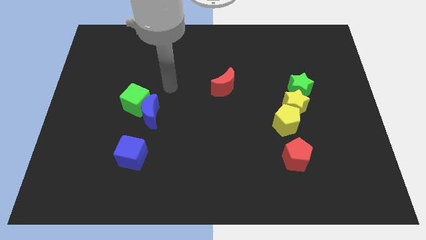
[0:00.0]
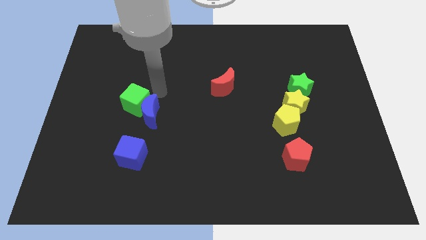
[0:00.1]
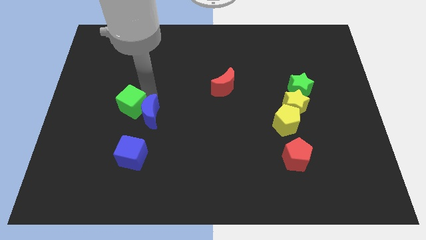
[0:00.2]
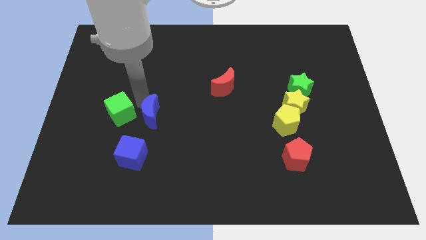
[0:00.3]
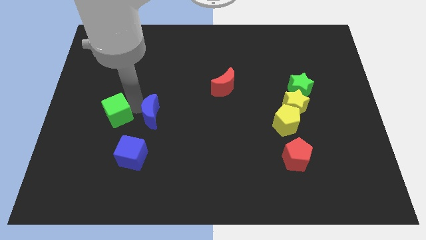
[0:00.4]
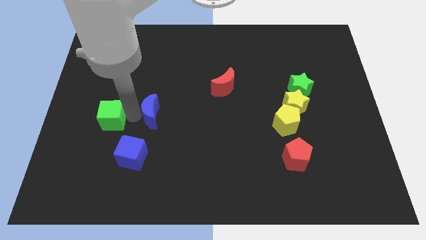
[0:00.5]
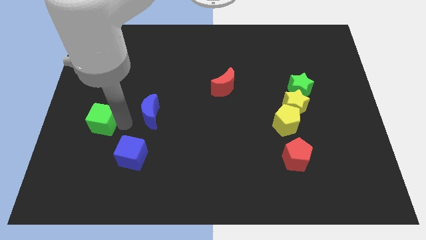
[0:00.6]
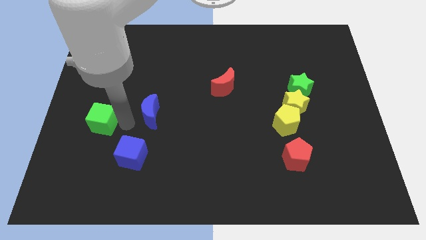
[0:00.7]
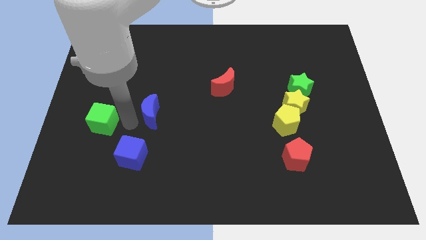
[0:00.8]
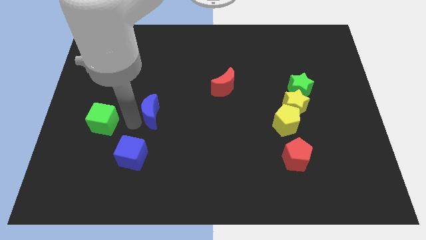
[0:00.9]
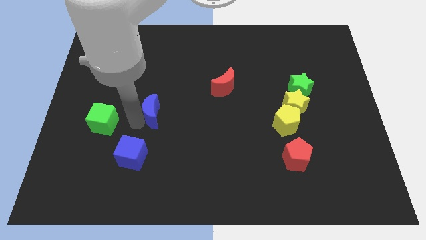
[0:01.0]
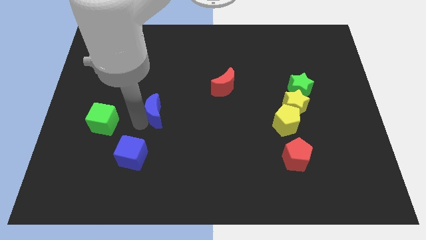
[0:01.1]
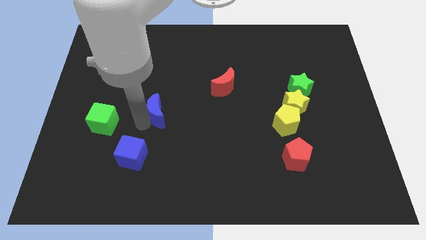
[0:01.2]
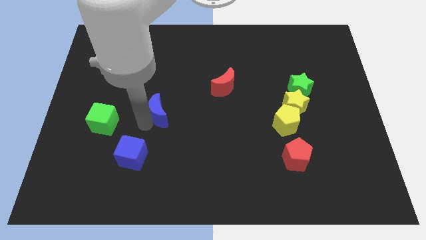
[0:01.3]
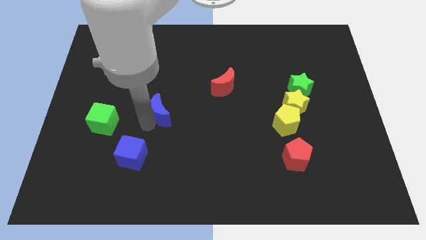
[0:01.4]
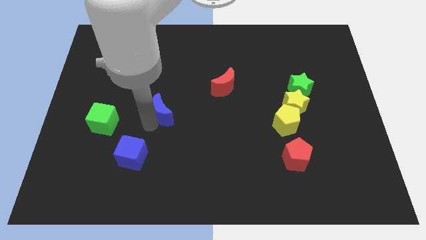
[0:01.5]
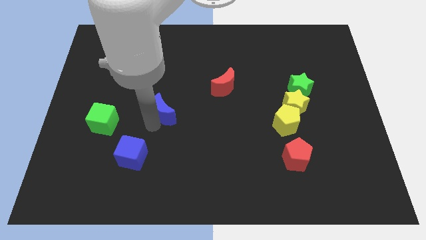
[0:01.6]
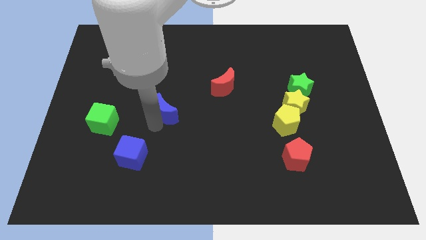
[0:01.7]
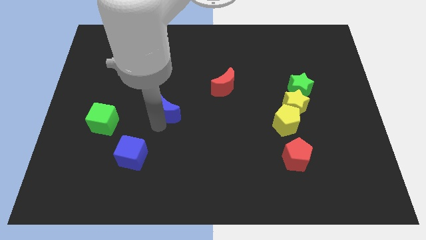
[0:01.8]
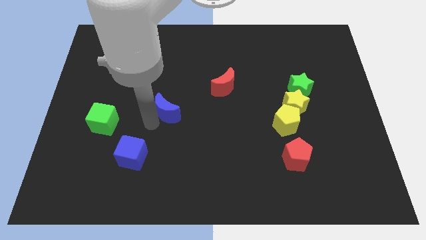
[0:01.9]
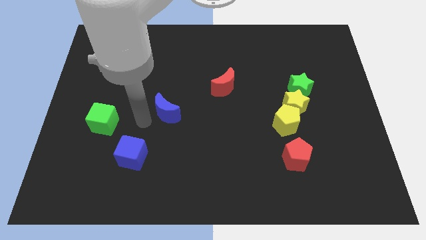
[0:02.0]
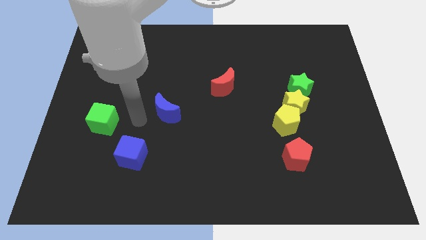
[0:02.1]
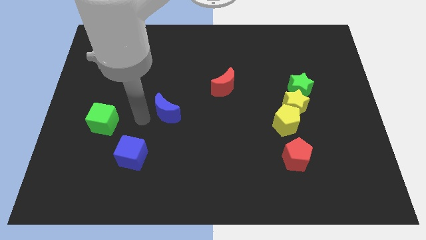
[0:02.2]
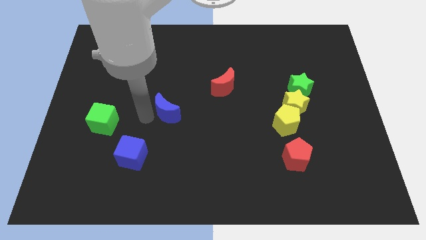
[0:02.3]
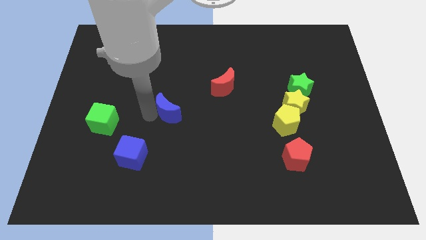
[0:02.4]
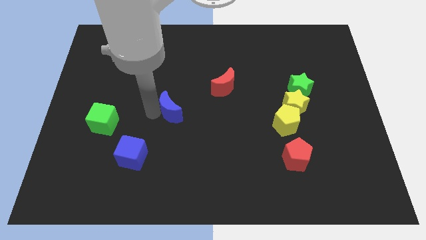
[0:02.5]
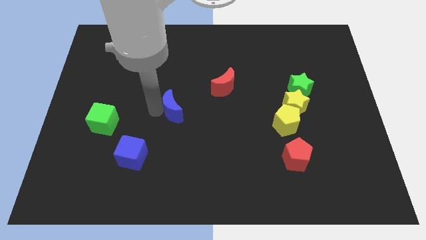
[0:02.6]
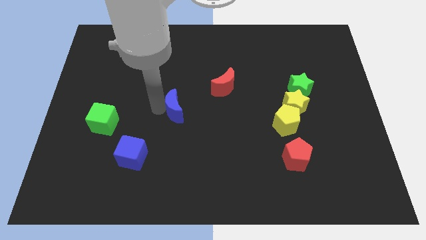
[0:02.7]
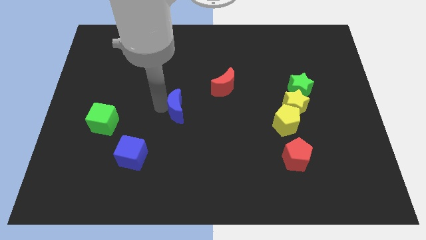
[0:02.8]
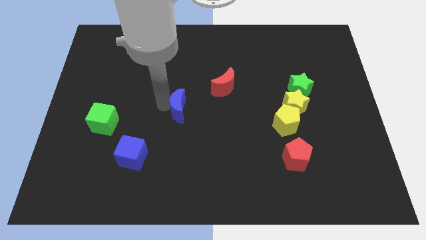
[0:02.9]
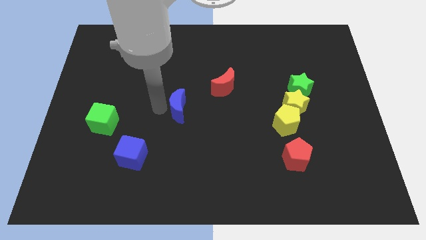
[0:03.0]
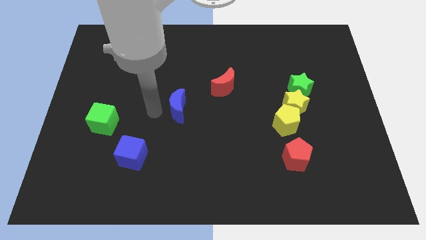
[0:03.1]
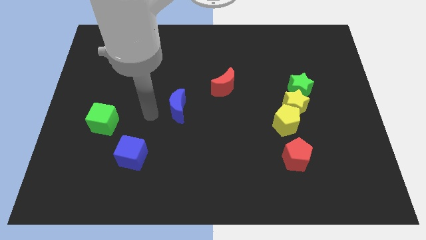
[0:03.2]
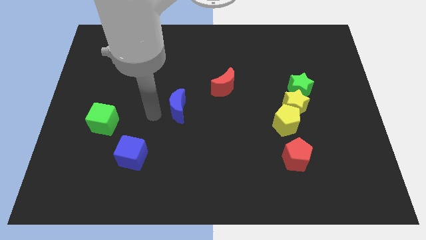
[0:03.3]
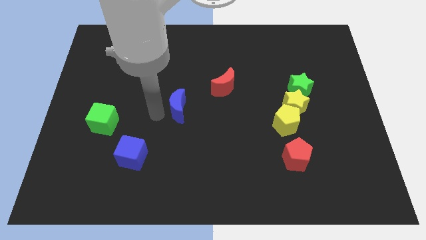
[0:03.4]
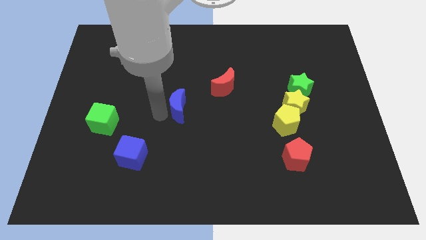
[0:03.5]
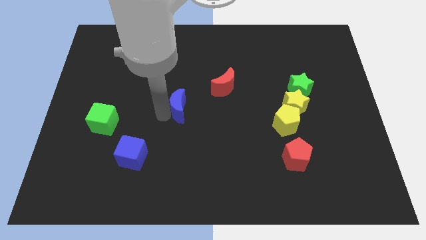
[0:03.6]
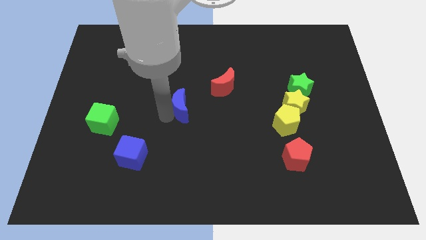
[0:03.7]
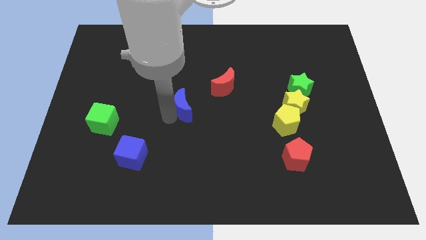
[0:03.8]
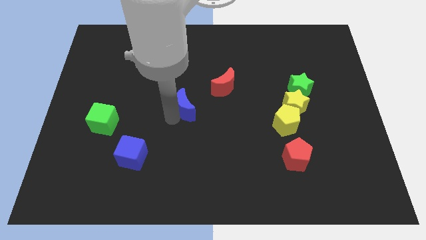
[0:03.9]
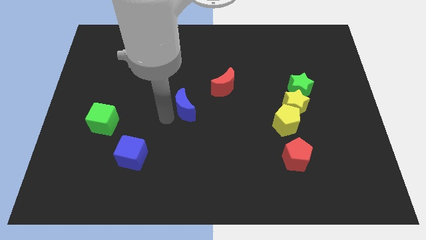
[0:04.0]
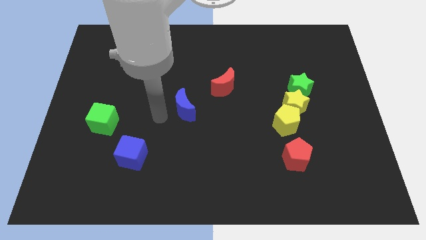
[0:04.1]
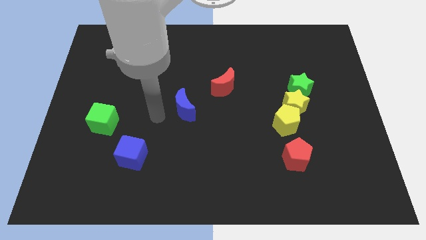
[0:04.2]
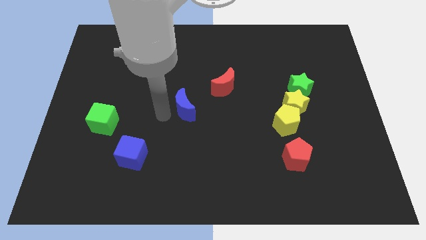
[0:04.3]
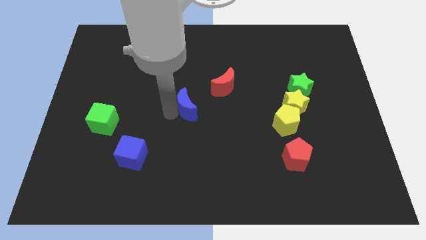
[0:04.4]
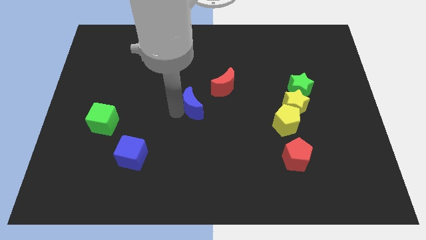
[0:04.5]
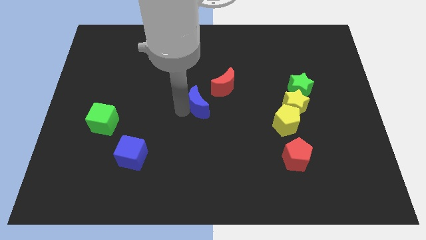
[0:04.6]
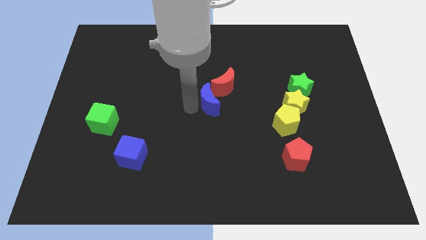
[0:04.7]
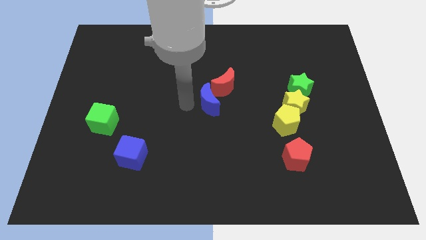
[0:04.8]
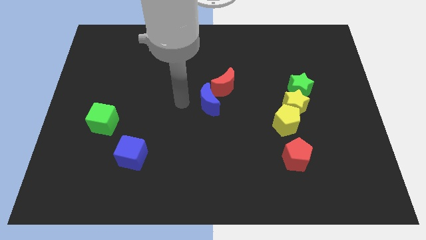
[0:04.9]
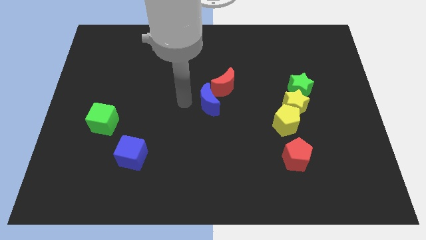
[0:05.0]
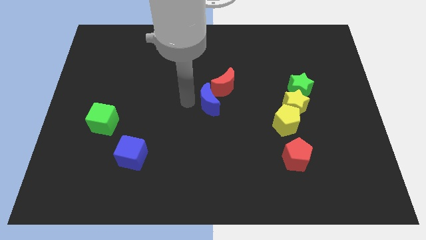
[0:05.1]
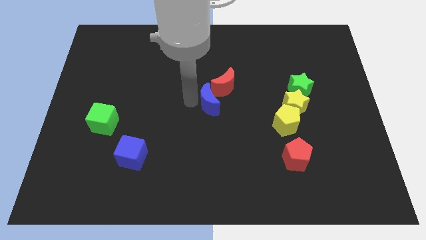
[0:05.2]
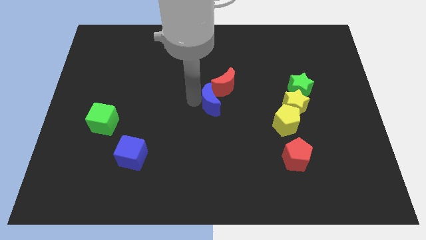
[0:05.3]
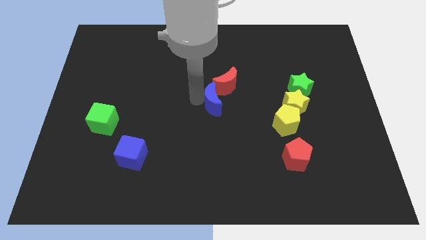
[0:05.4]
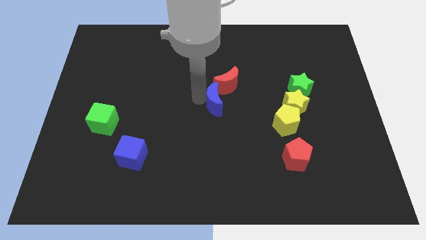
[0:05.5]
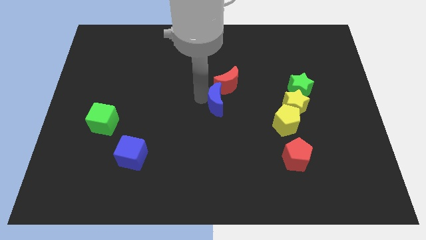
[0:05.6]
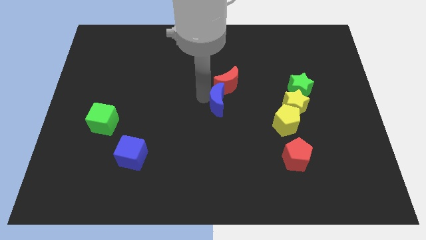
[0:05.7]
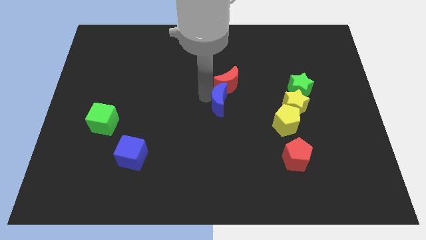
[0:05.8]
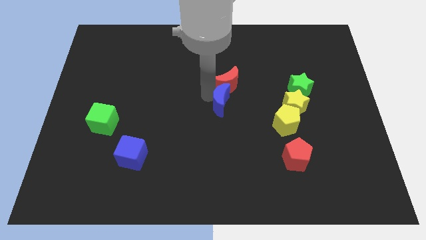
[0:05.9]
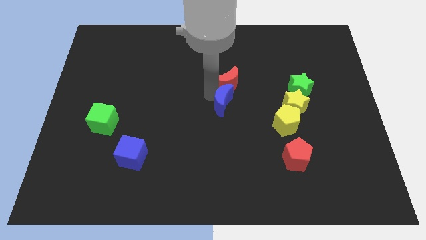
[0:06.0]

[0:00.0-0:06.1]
slide the blue moon diagonally down and to the right of the red moon
